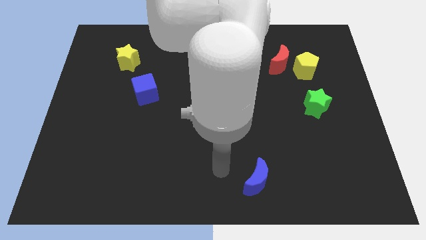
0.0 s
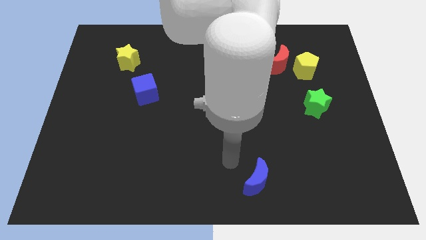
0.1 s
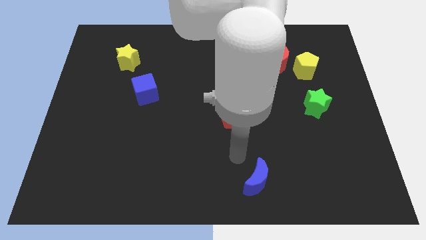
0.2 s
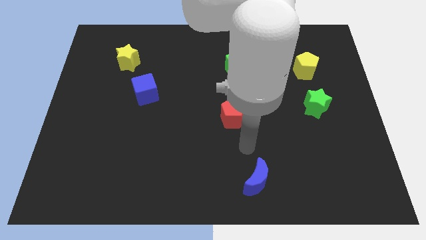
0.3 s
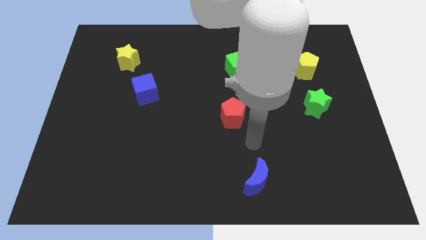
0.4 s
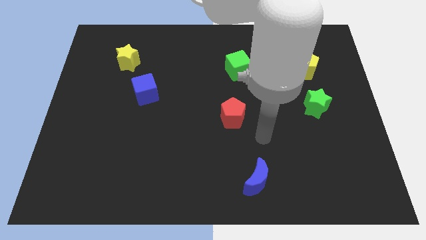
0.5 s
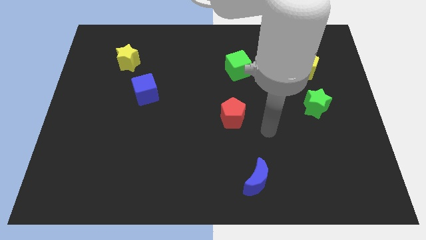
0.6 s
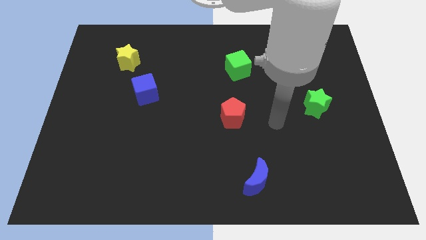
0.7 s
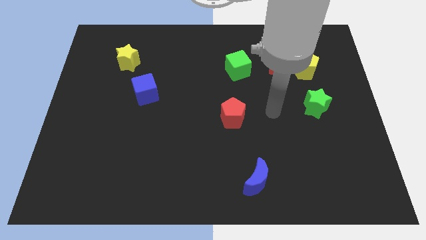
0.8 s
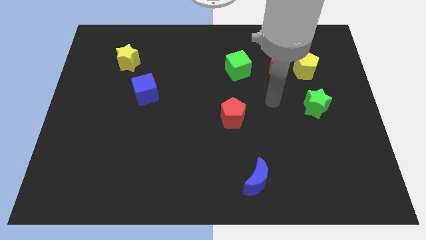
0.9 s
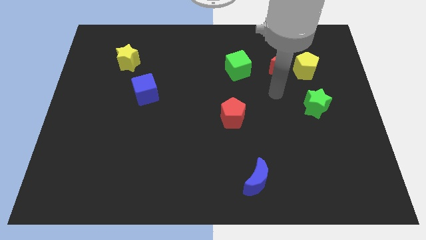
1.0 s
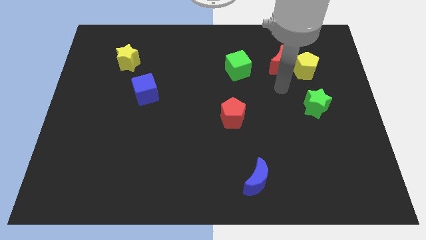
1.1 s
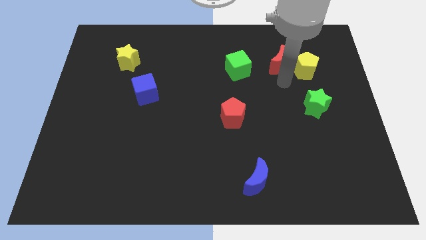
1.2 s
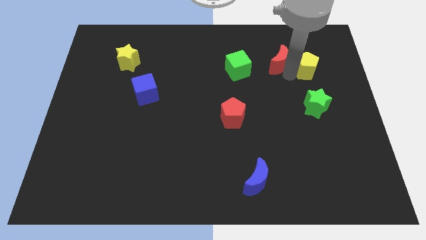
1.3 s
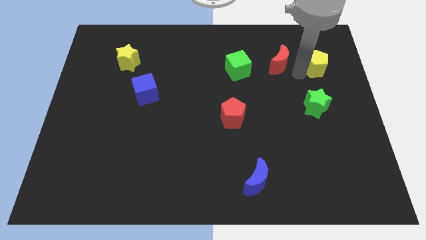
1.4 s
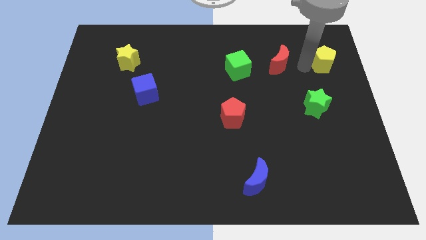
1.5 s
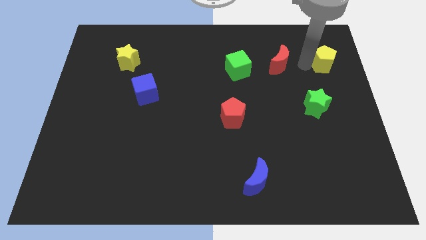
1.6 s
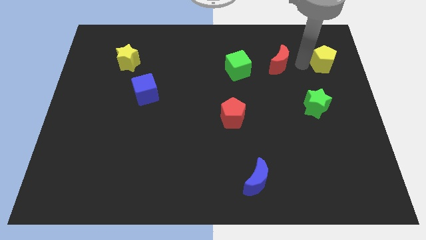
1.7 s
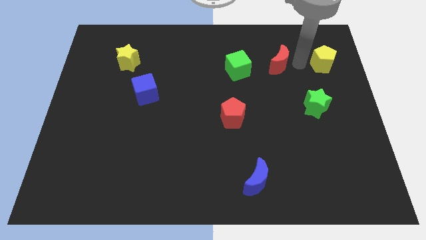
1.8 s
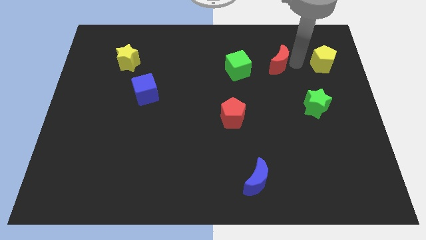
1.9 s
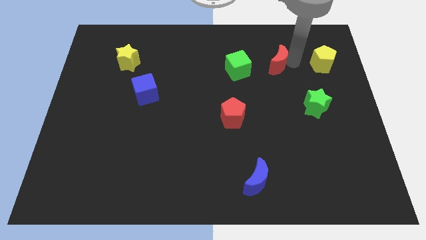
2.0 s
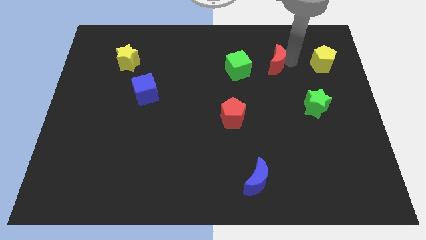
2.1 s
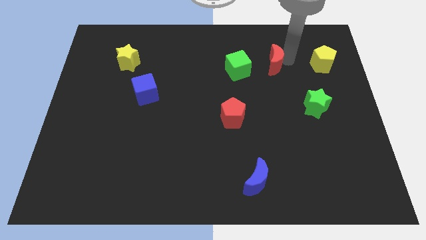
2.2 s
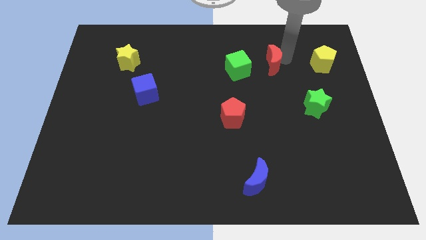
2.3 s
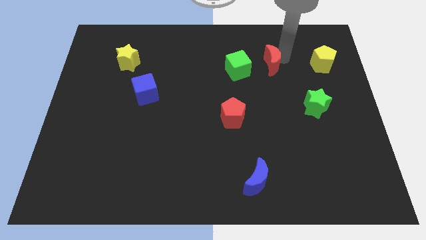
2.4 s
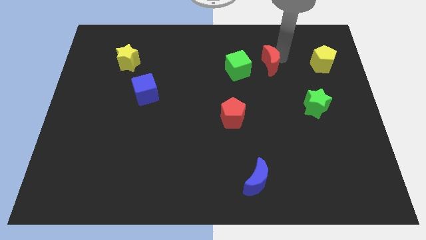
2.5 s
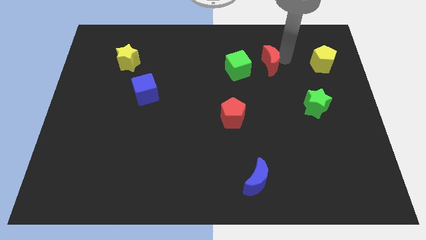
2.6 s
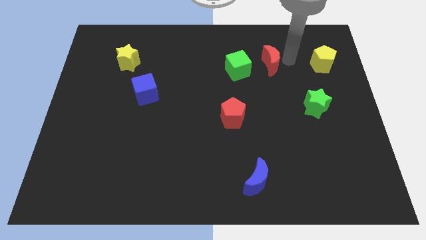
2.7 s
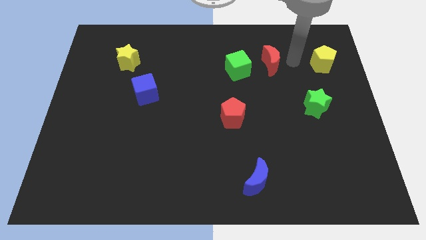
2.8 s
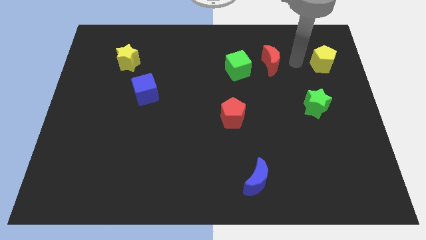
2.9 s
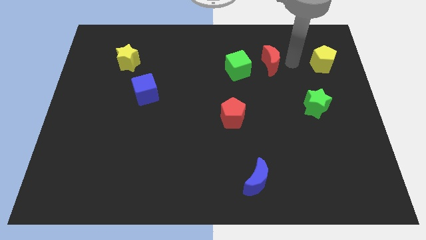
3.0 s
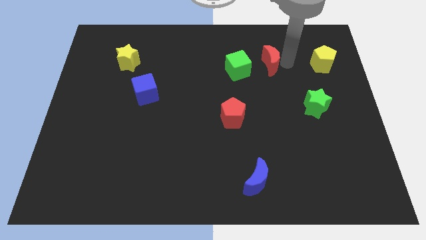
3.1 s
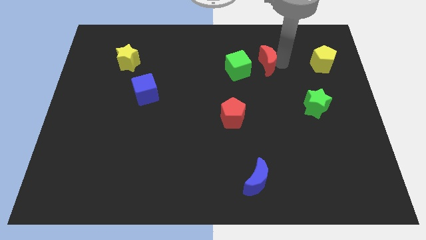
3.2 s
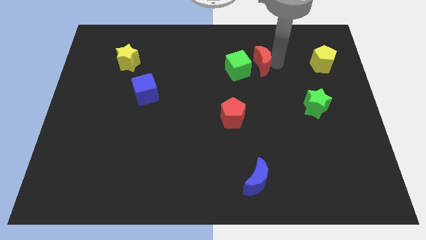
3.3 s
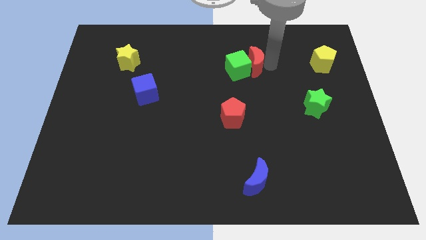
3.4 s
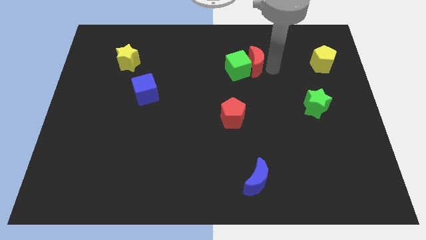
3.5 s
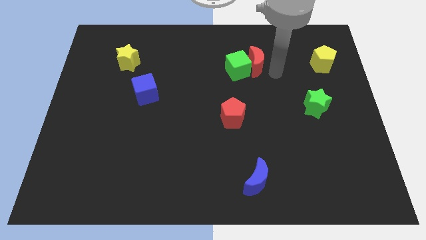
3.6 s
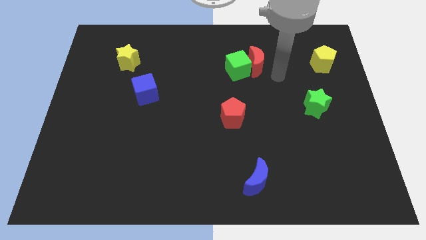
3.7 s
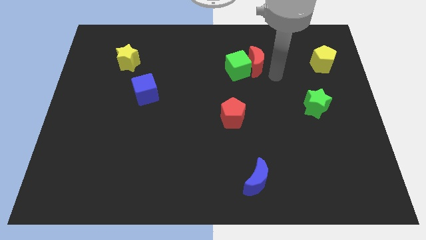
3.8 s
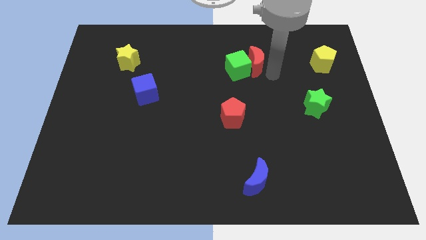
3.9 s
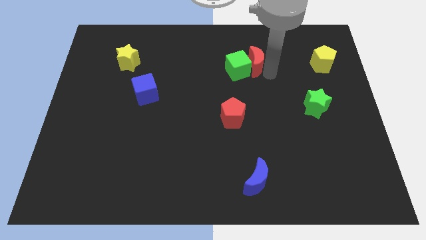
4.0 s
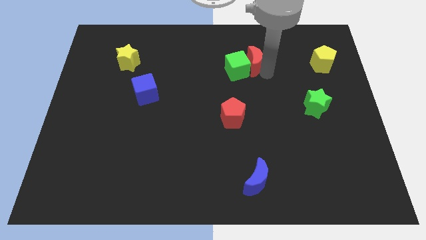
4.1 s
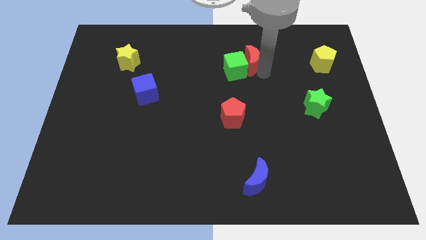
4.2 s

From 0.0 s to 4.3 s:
slightly push the red moon left

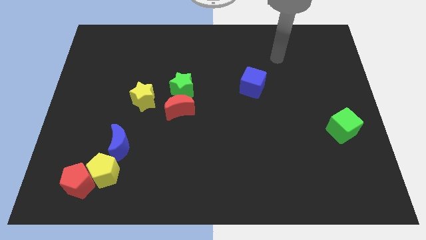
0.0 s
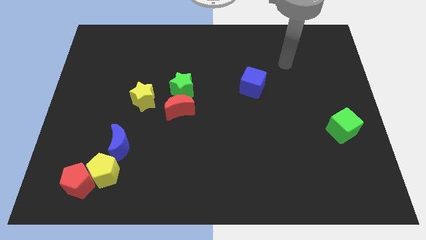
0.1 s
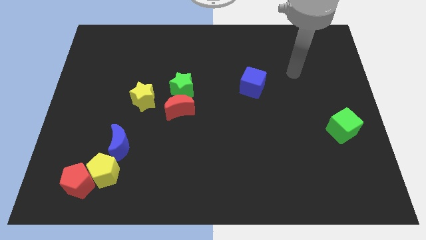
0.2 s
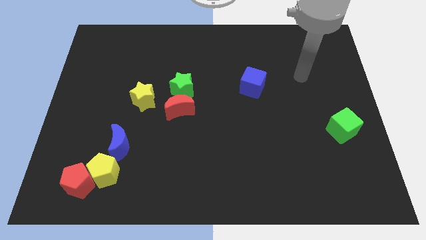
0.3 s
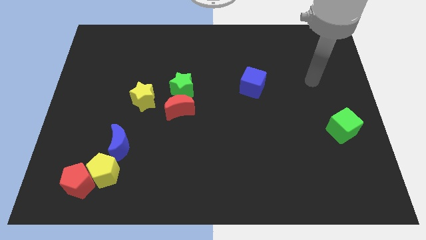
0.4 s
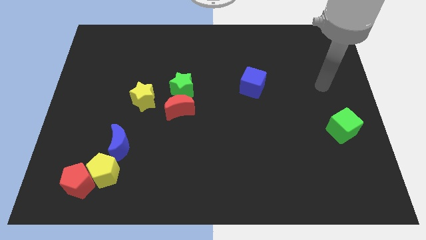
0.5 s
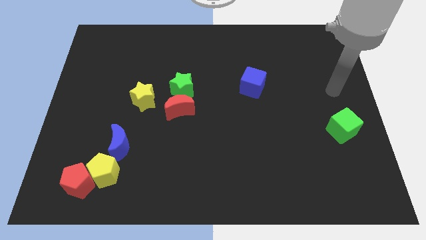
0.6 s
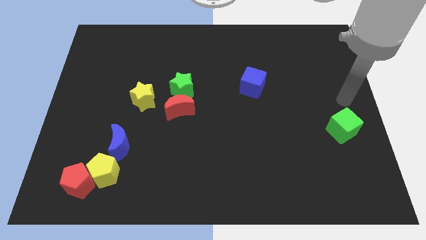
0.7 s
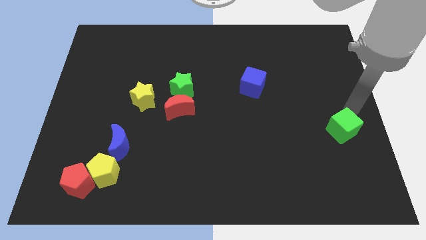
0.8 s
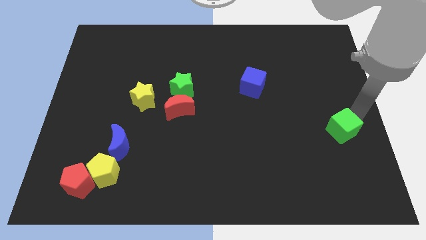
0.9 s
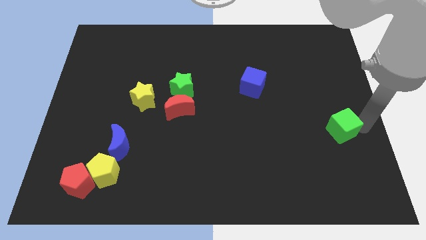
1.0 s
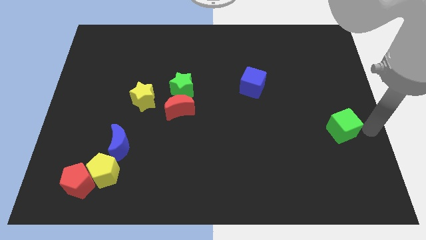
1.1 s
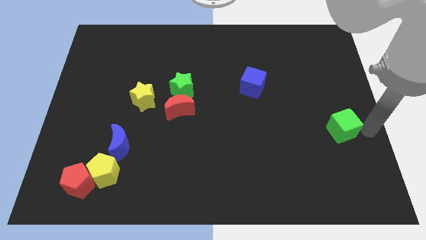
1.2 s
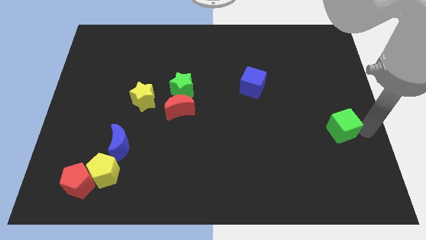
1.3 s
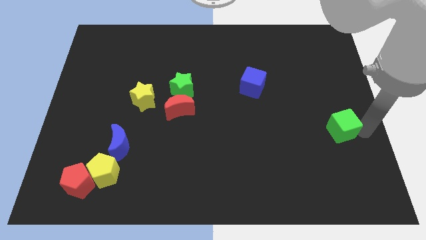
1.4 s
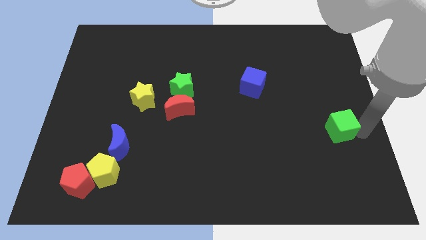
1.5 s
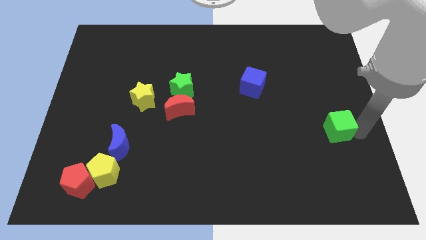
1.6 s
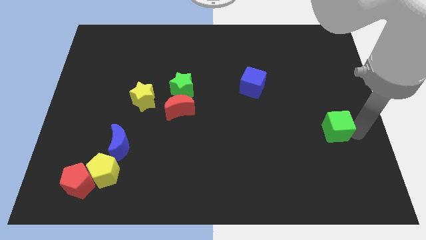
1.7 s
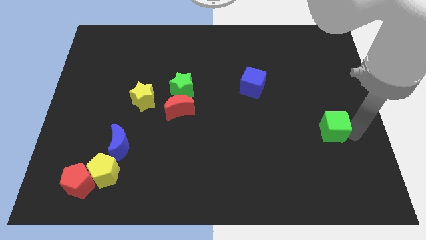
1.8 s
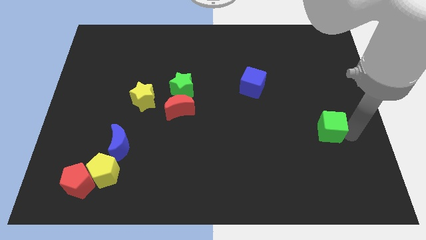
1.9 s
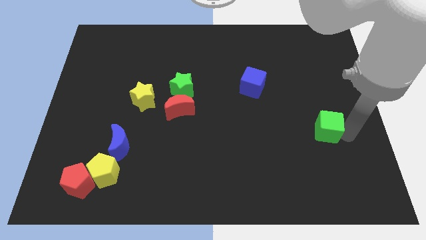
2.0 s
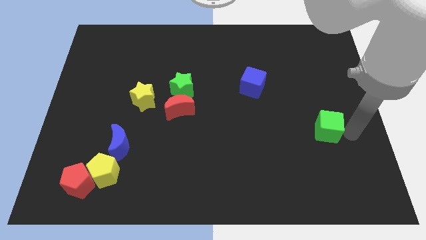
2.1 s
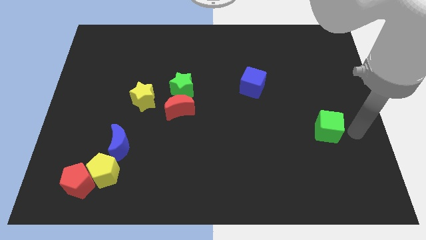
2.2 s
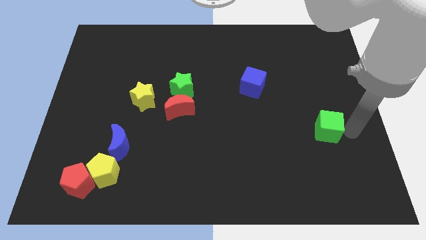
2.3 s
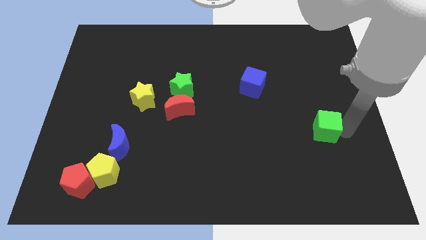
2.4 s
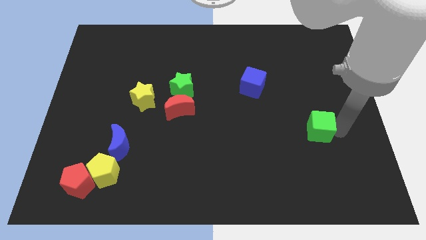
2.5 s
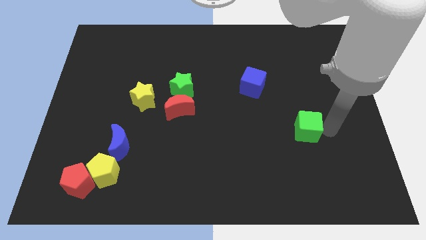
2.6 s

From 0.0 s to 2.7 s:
slide the green cube a bit to the left

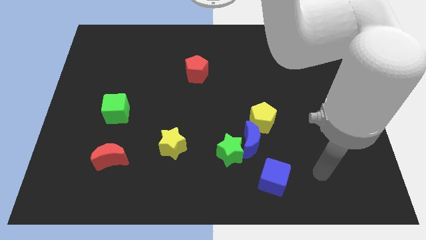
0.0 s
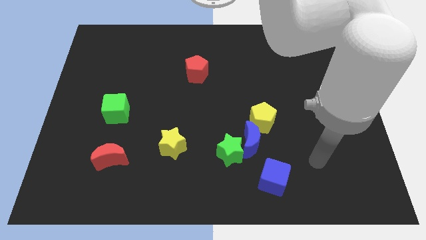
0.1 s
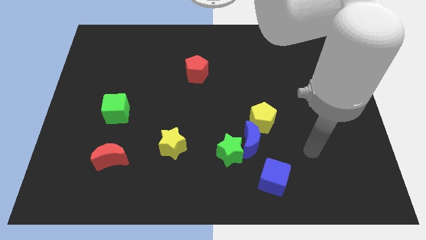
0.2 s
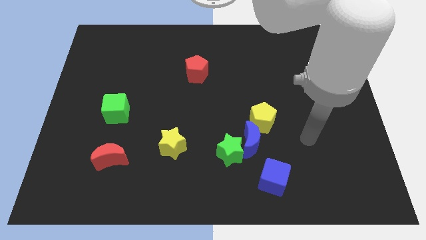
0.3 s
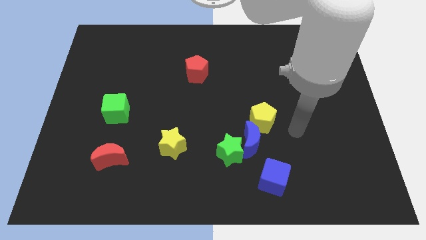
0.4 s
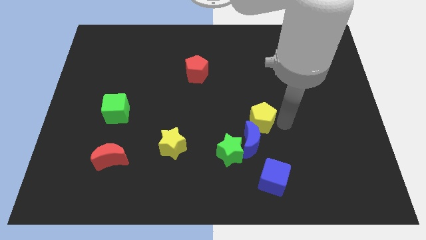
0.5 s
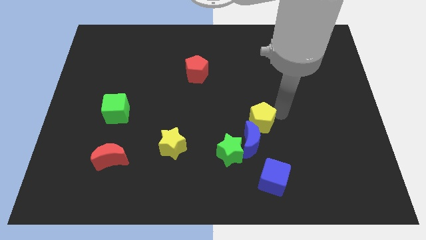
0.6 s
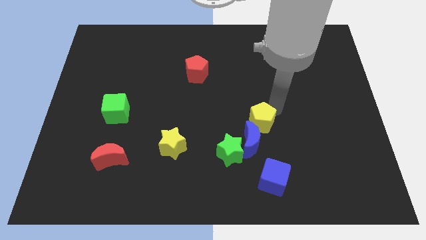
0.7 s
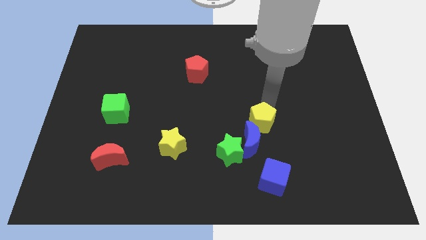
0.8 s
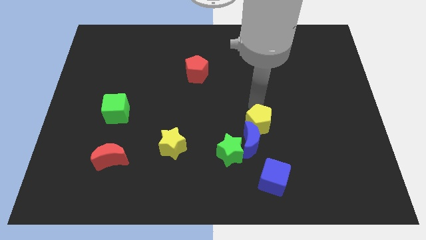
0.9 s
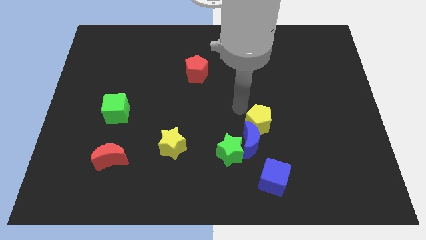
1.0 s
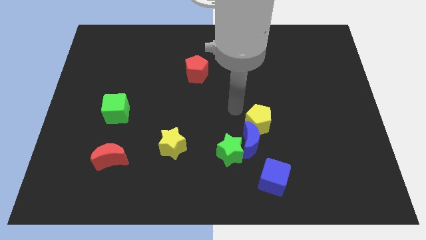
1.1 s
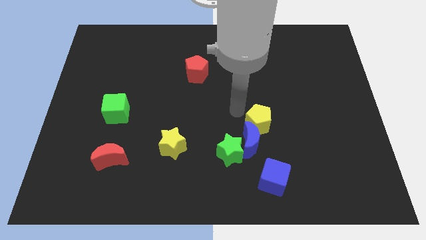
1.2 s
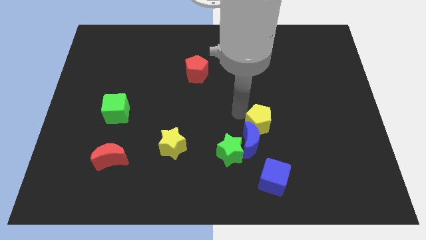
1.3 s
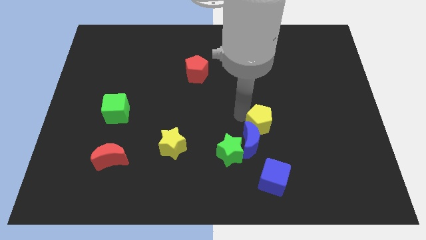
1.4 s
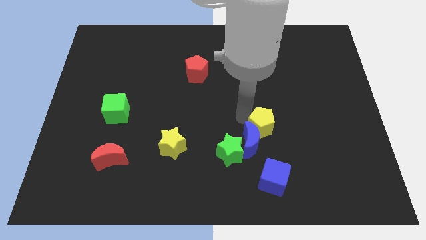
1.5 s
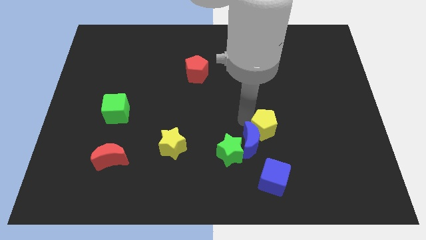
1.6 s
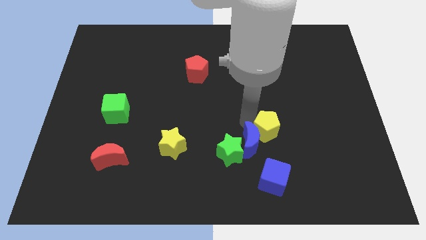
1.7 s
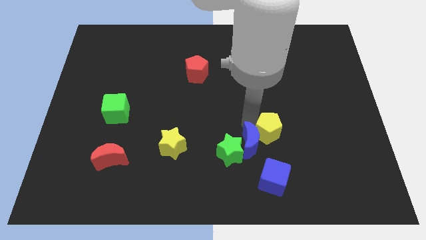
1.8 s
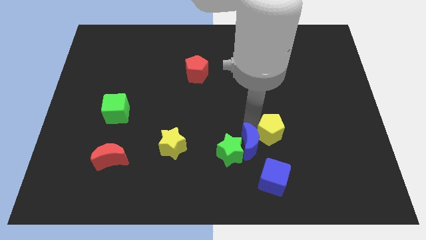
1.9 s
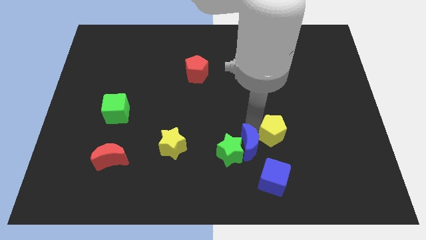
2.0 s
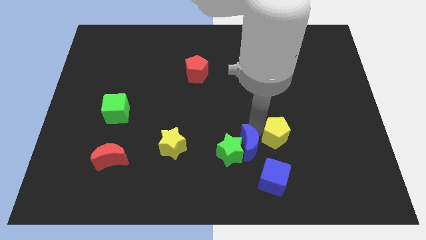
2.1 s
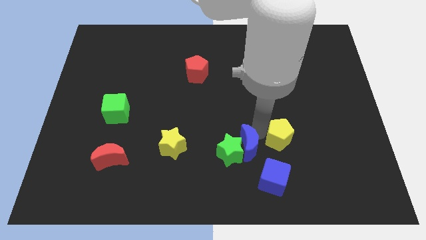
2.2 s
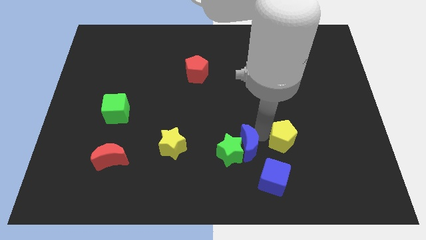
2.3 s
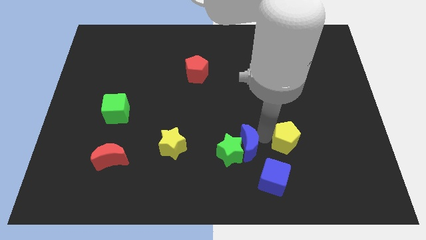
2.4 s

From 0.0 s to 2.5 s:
slightly move the yellow pentagon diagonally down and right
